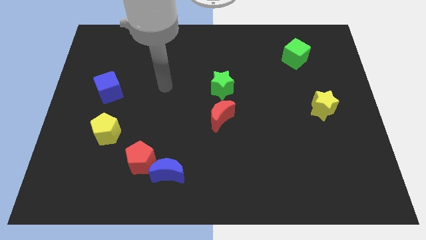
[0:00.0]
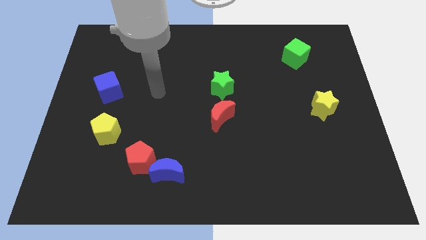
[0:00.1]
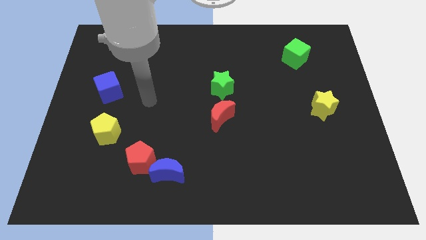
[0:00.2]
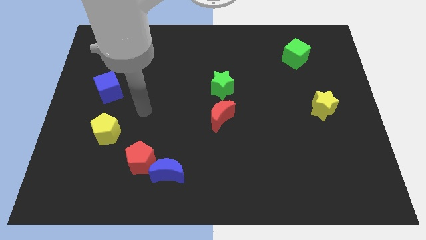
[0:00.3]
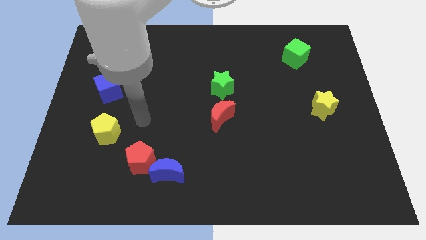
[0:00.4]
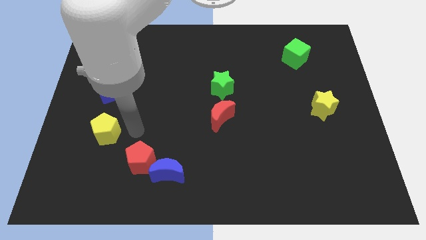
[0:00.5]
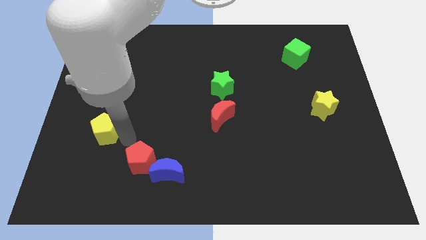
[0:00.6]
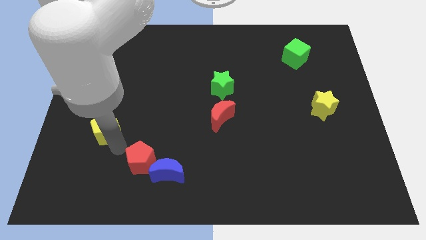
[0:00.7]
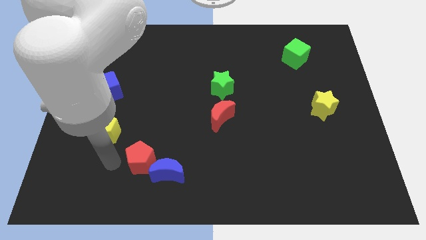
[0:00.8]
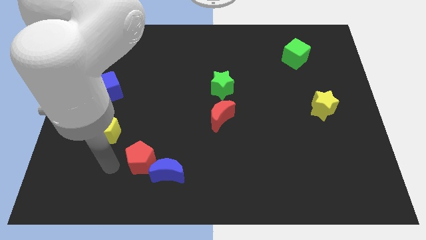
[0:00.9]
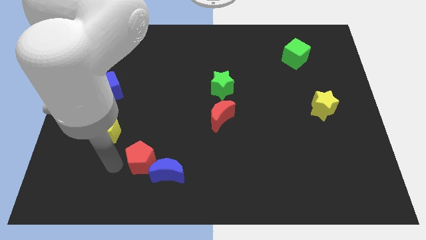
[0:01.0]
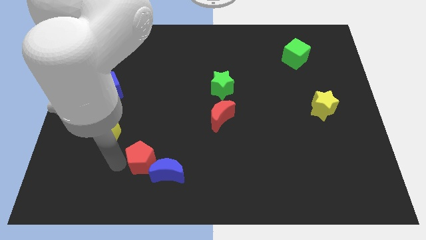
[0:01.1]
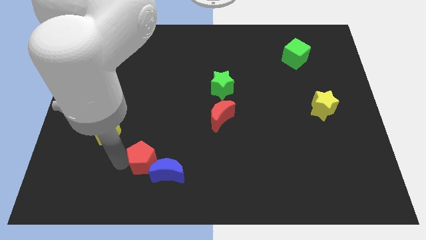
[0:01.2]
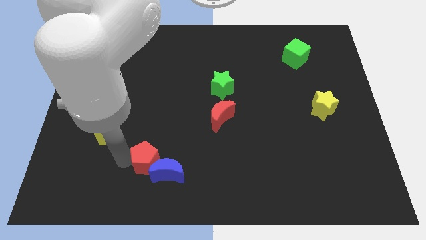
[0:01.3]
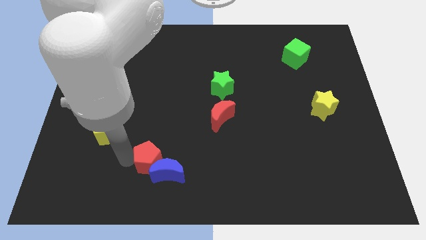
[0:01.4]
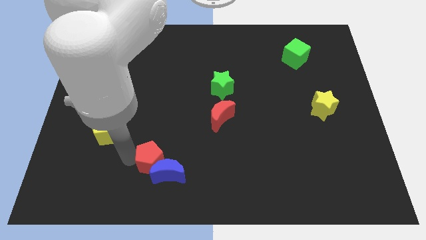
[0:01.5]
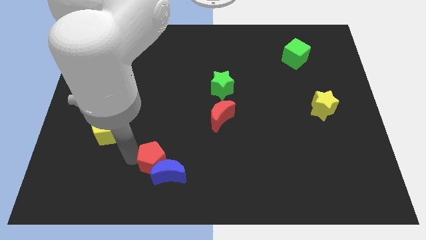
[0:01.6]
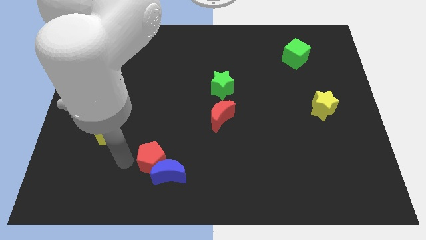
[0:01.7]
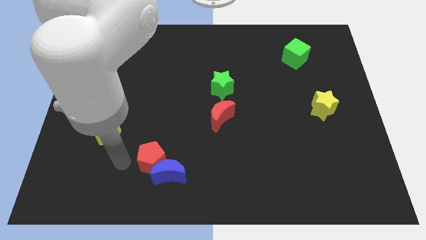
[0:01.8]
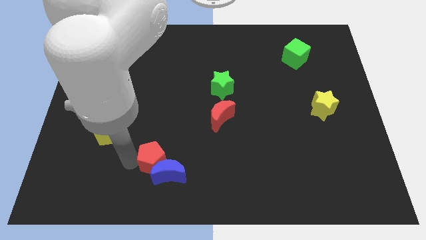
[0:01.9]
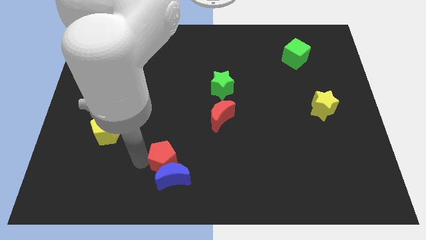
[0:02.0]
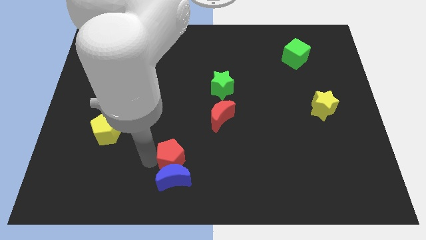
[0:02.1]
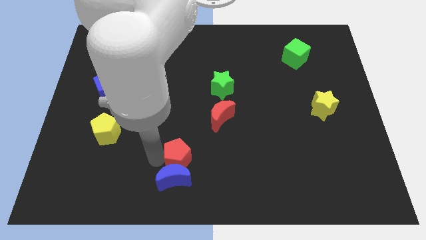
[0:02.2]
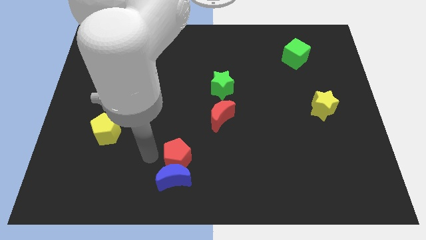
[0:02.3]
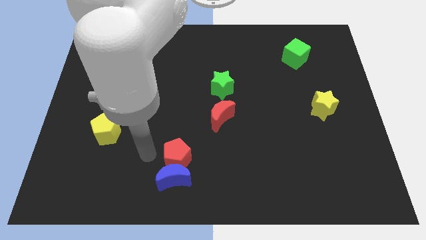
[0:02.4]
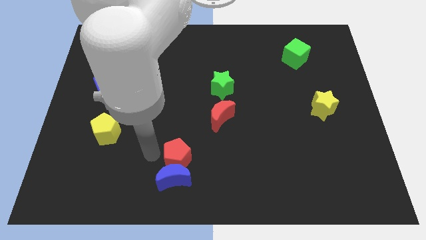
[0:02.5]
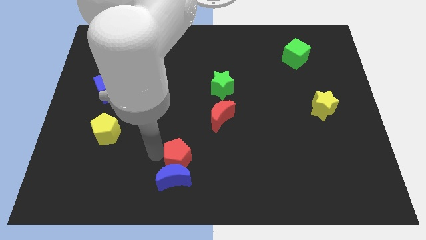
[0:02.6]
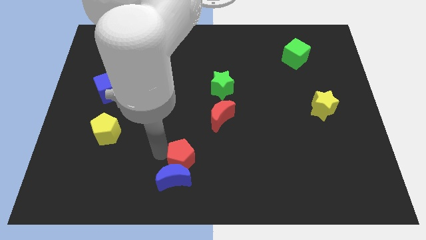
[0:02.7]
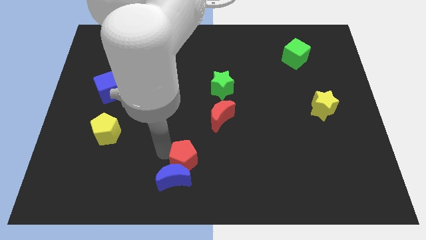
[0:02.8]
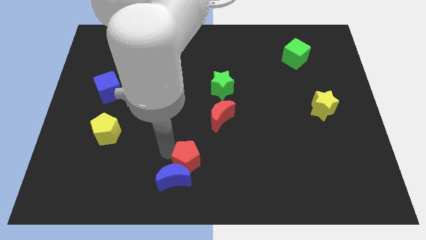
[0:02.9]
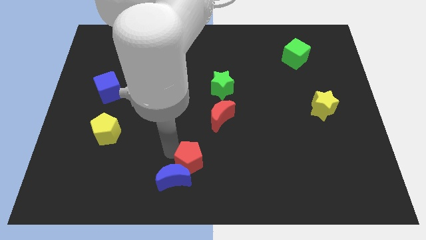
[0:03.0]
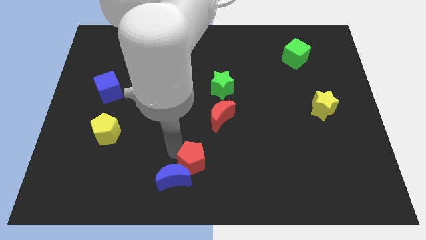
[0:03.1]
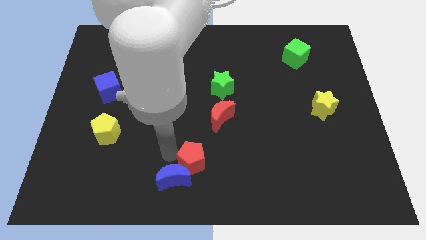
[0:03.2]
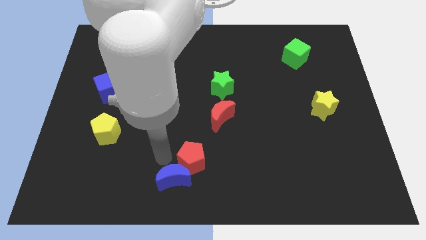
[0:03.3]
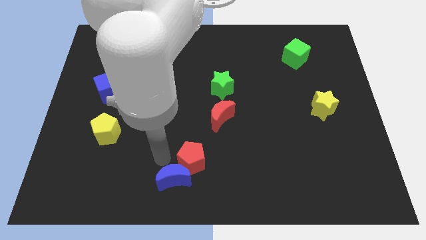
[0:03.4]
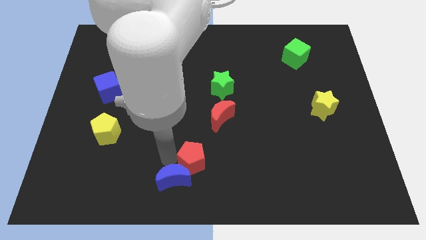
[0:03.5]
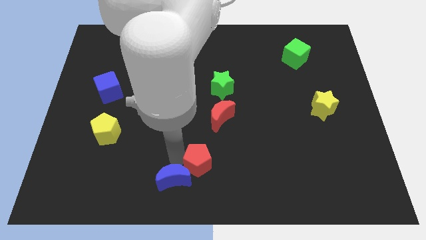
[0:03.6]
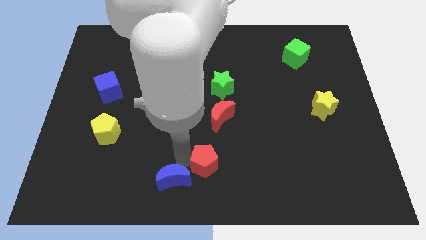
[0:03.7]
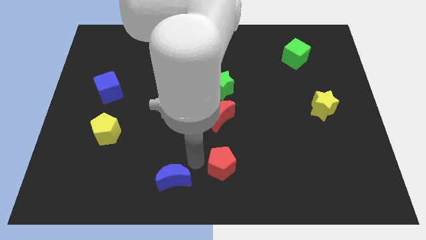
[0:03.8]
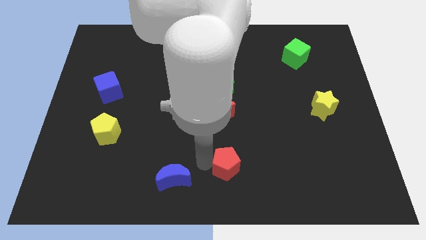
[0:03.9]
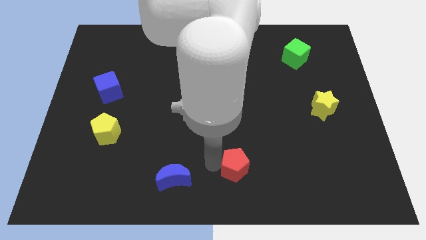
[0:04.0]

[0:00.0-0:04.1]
slide the red pentagon right

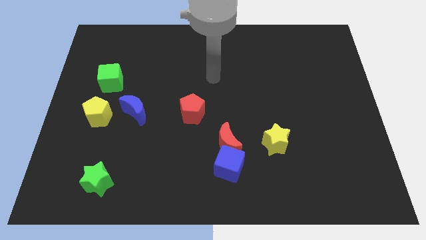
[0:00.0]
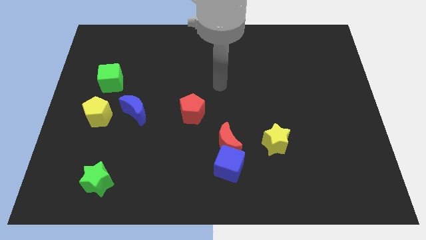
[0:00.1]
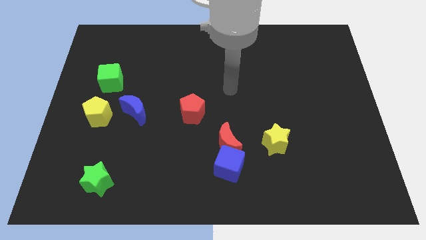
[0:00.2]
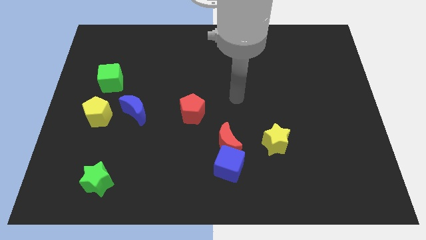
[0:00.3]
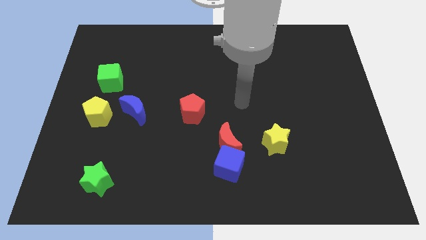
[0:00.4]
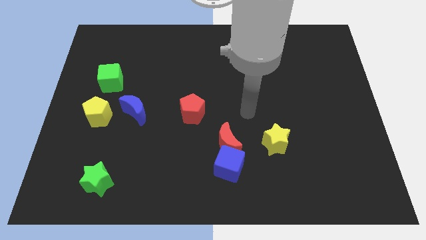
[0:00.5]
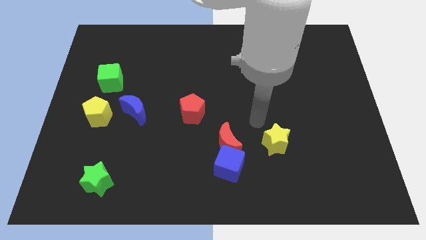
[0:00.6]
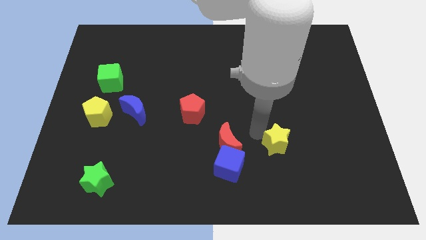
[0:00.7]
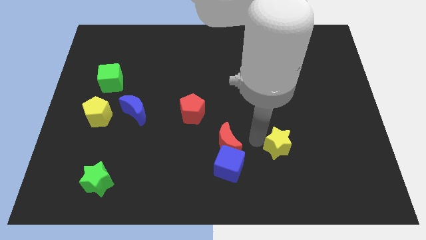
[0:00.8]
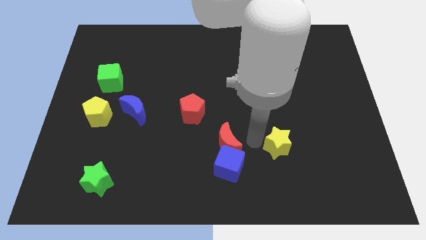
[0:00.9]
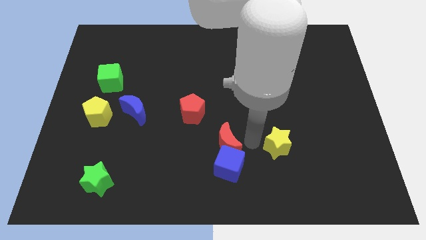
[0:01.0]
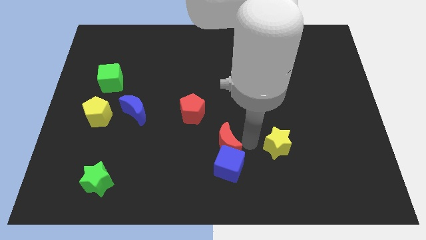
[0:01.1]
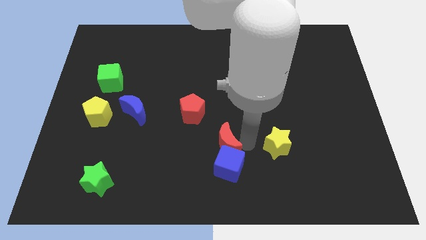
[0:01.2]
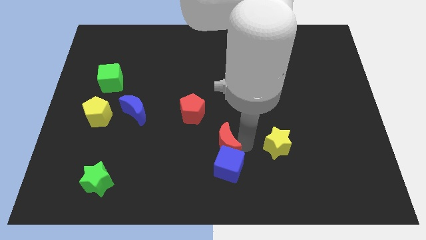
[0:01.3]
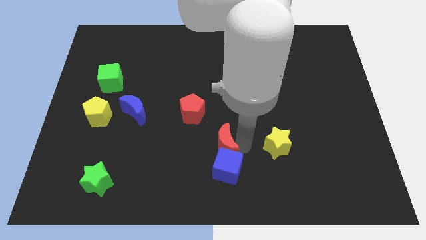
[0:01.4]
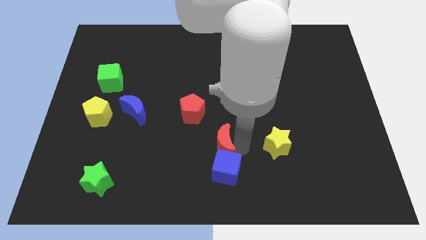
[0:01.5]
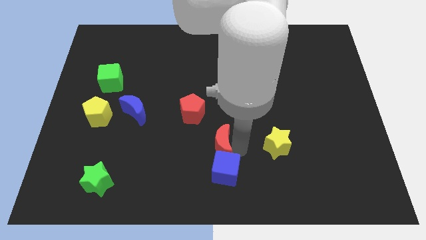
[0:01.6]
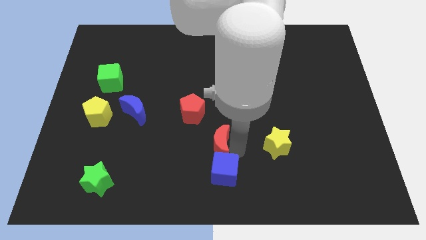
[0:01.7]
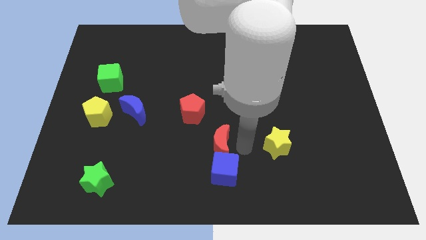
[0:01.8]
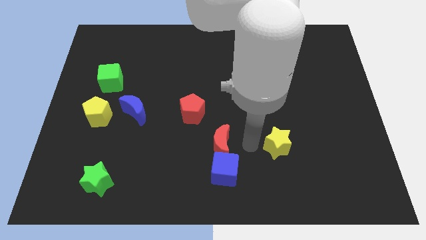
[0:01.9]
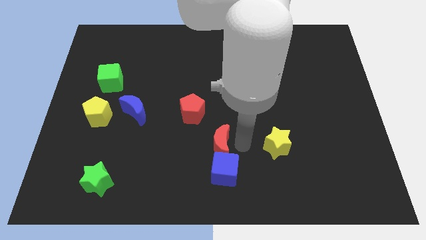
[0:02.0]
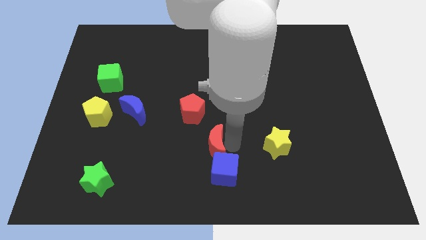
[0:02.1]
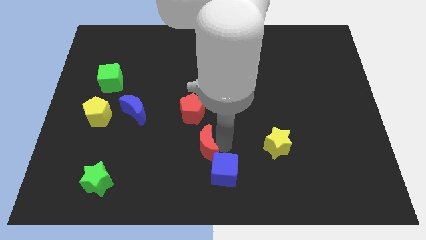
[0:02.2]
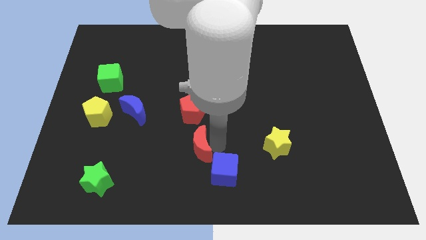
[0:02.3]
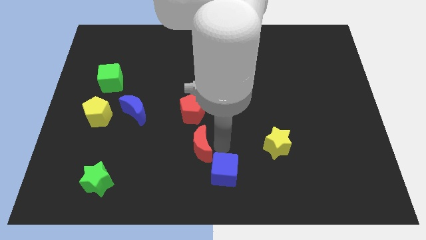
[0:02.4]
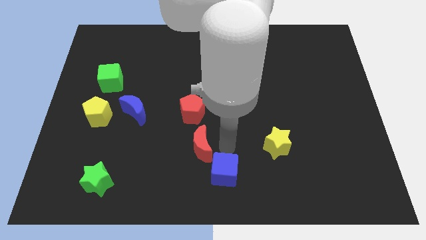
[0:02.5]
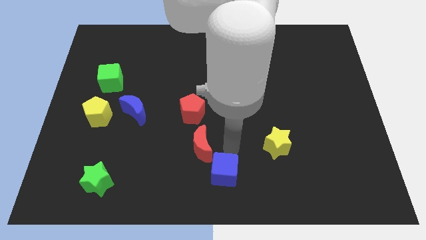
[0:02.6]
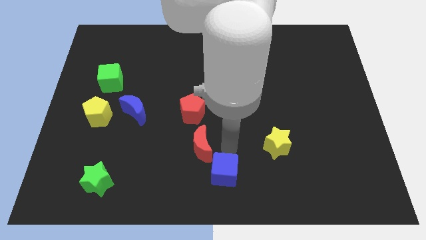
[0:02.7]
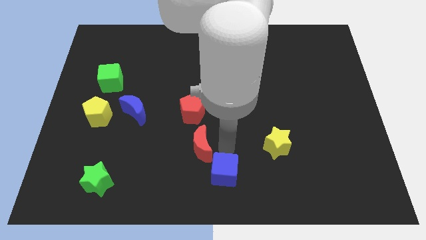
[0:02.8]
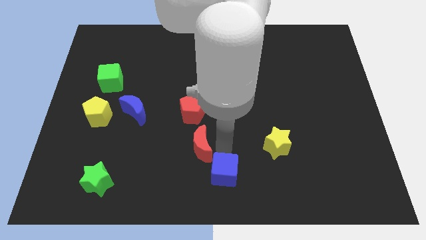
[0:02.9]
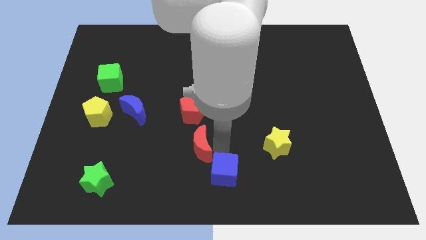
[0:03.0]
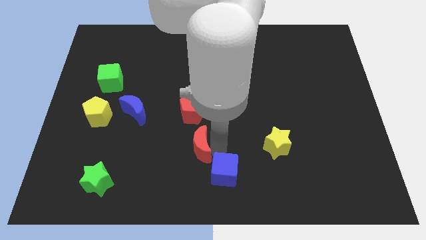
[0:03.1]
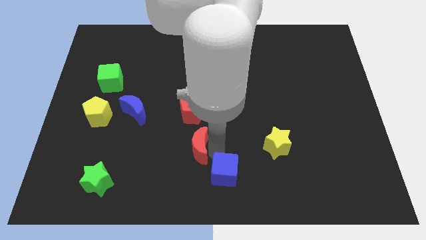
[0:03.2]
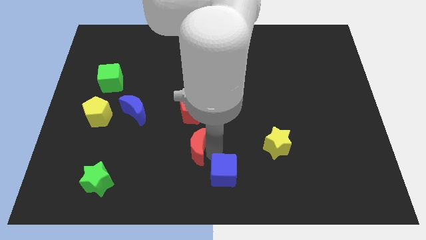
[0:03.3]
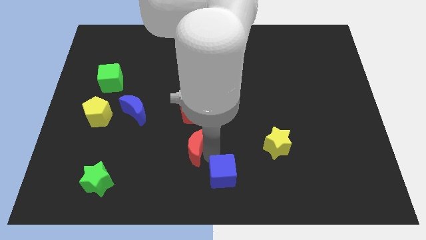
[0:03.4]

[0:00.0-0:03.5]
slightly slide the red moon to the left

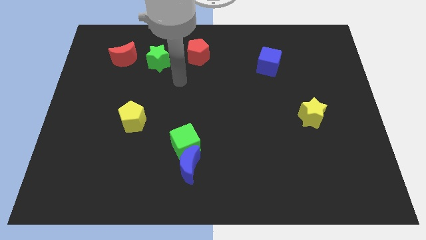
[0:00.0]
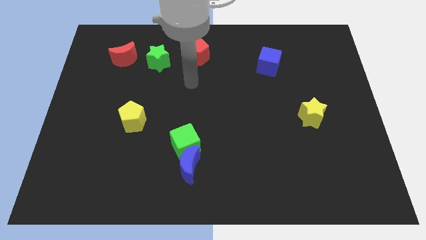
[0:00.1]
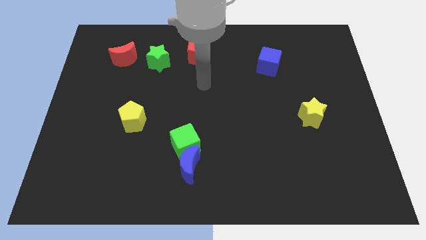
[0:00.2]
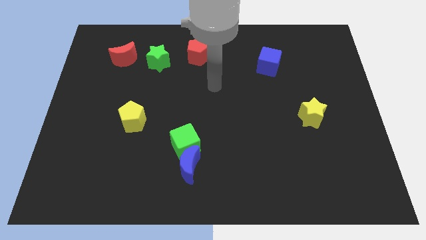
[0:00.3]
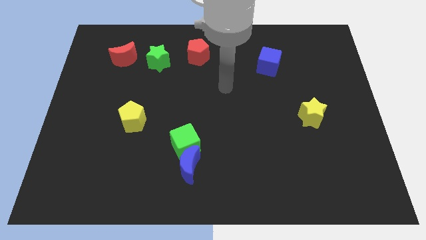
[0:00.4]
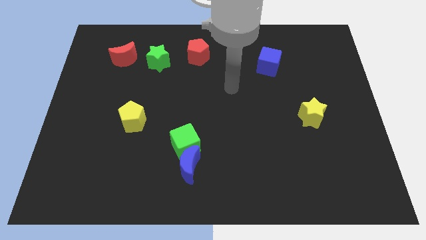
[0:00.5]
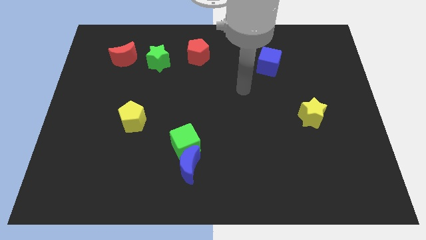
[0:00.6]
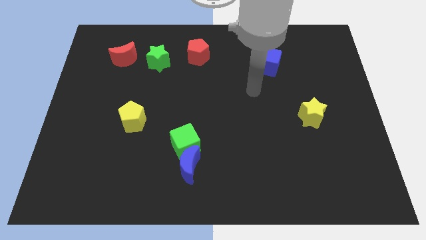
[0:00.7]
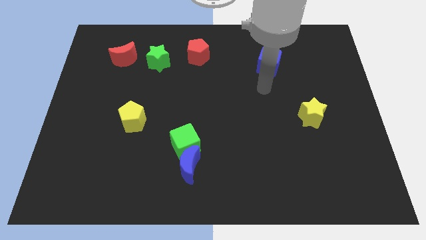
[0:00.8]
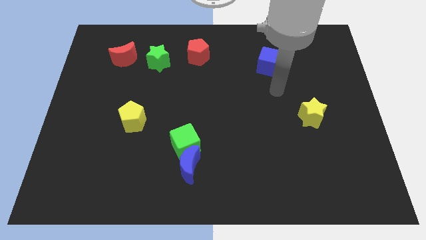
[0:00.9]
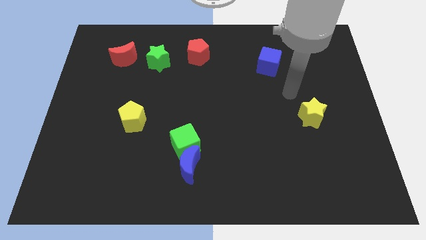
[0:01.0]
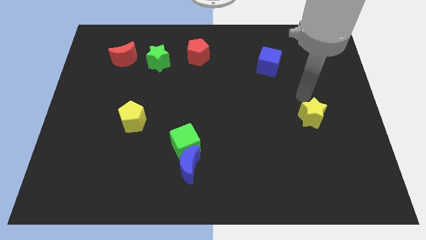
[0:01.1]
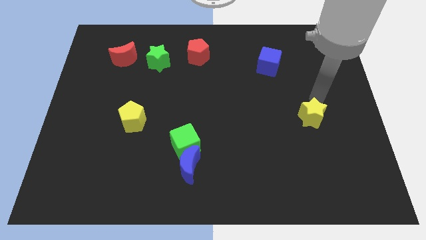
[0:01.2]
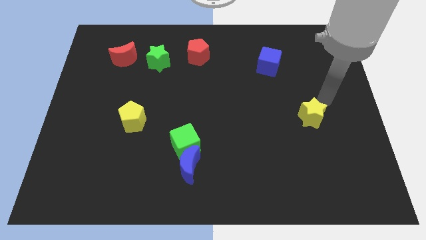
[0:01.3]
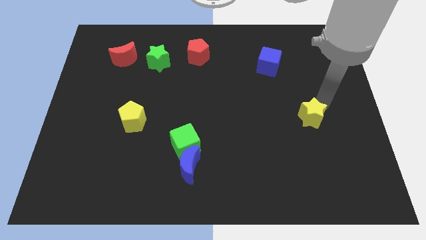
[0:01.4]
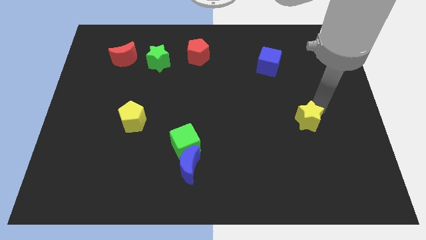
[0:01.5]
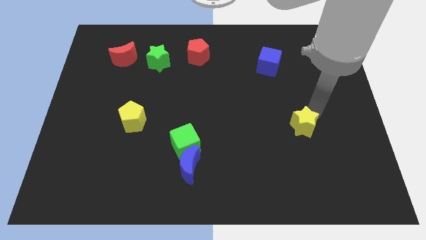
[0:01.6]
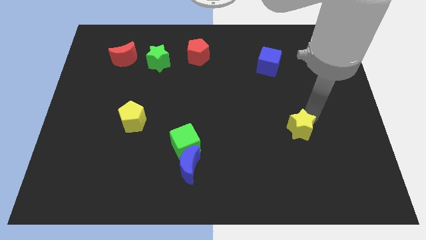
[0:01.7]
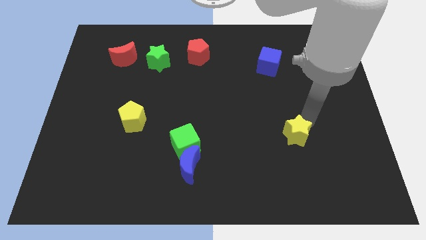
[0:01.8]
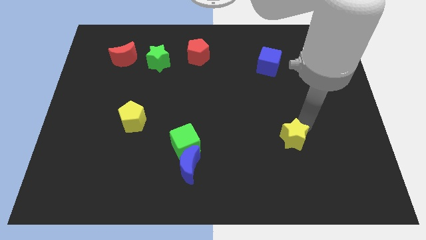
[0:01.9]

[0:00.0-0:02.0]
slide the yellow star slightly down and to the left diagonally
